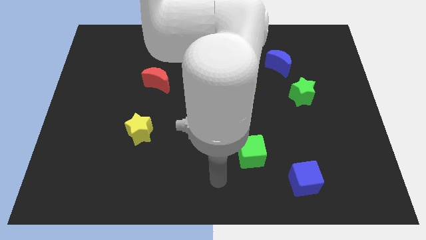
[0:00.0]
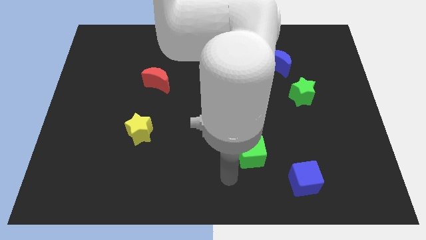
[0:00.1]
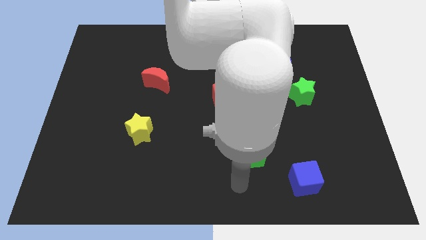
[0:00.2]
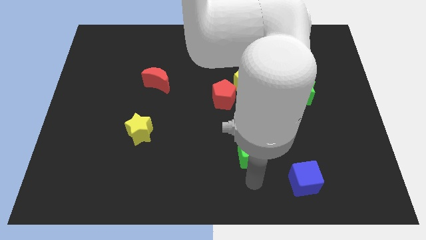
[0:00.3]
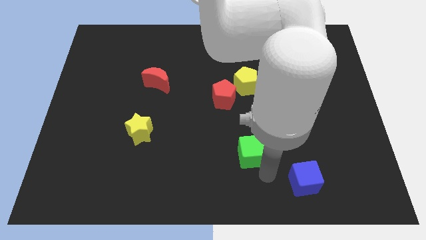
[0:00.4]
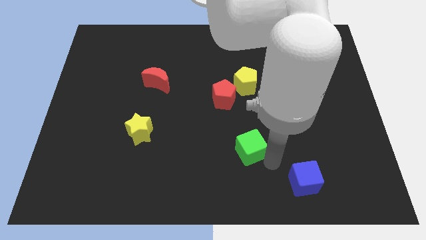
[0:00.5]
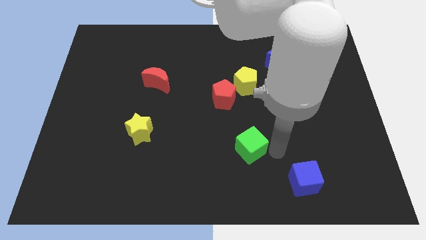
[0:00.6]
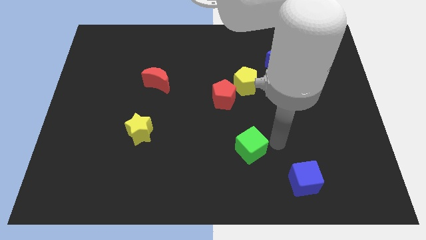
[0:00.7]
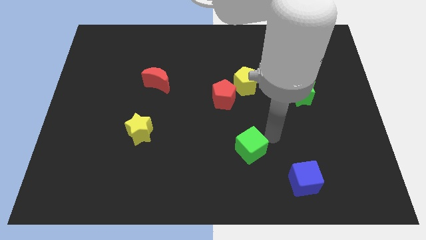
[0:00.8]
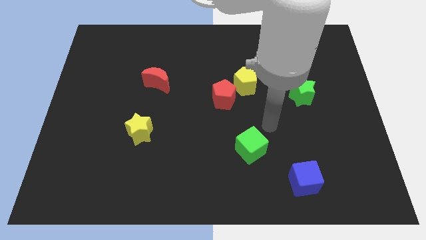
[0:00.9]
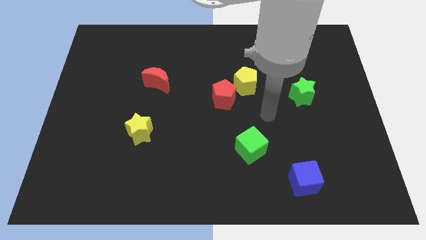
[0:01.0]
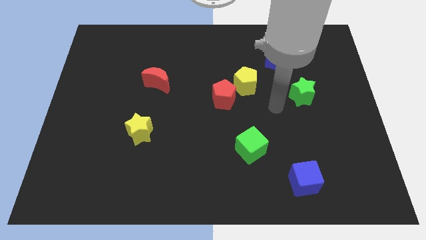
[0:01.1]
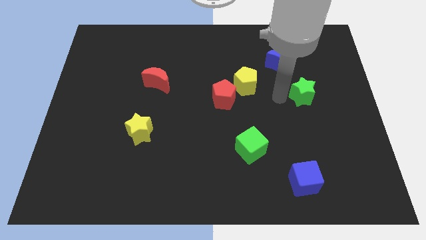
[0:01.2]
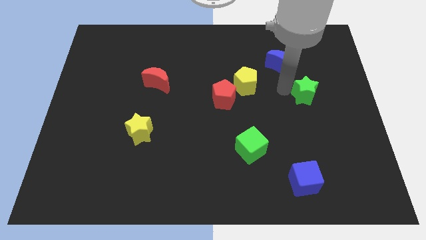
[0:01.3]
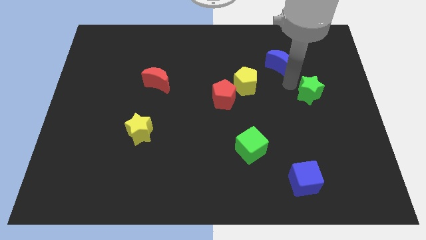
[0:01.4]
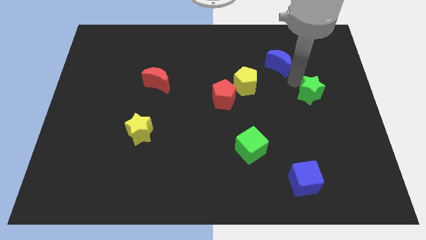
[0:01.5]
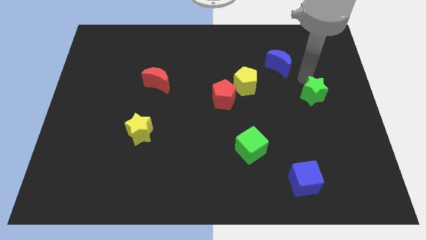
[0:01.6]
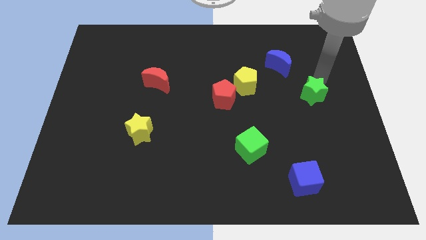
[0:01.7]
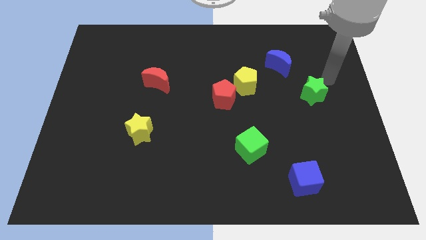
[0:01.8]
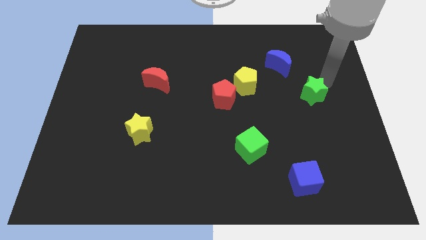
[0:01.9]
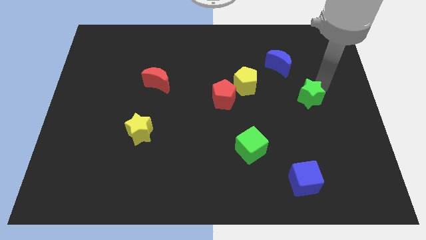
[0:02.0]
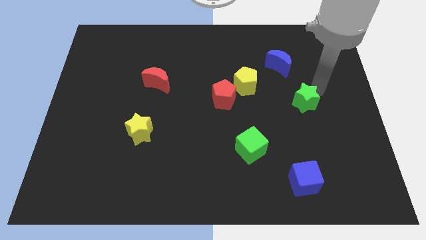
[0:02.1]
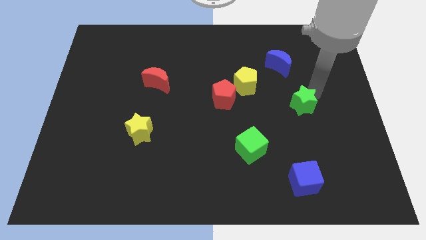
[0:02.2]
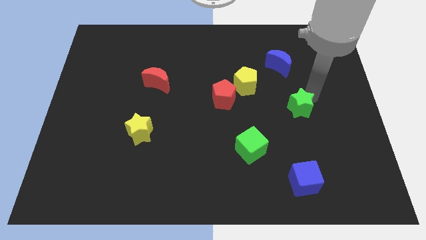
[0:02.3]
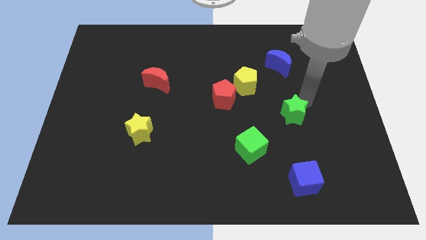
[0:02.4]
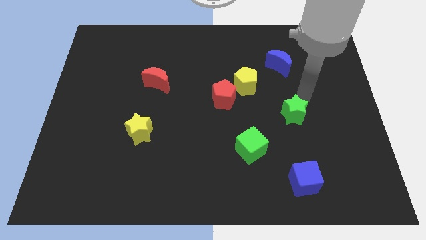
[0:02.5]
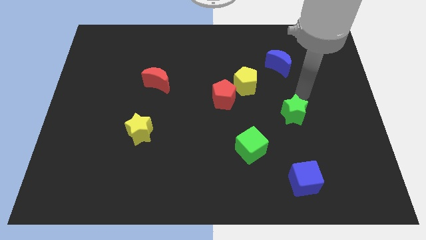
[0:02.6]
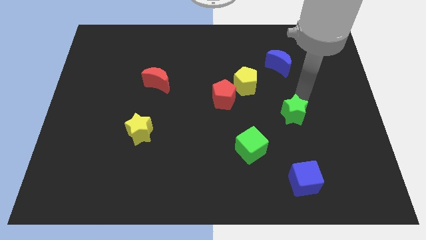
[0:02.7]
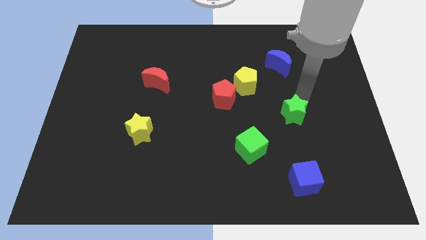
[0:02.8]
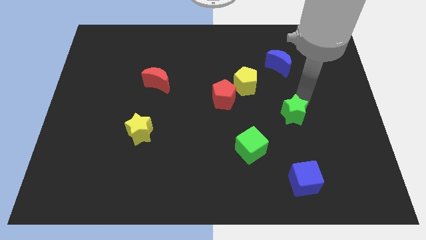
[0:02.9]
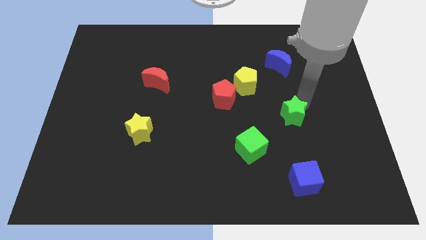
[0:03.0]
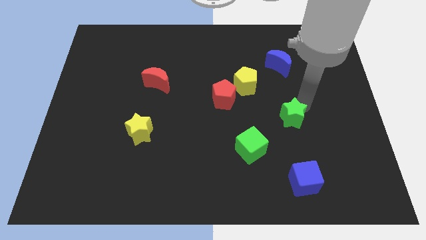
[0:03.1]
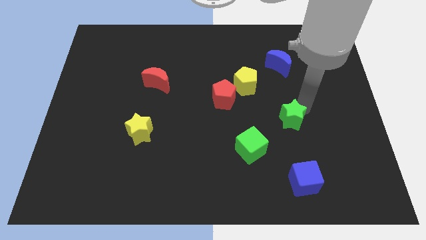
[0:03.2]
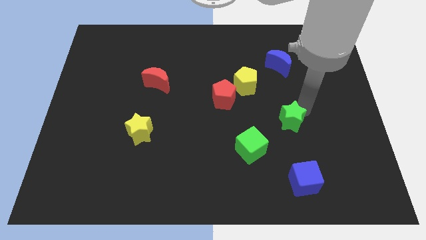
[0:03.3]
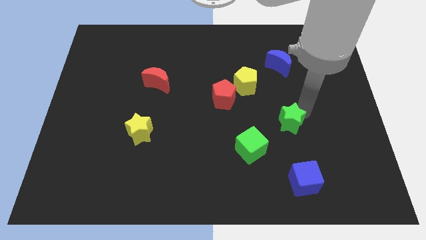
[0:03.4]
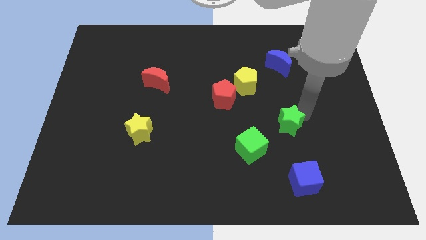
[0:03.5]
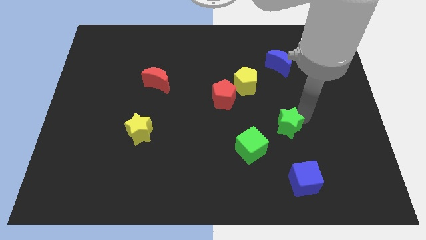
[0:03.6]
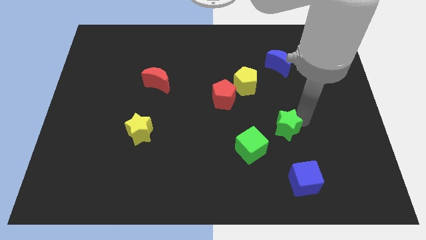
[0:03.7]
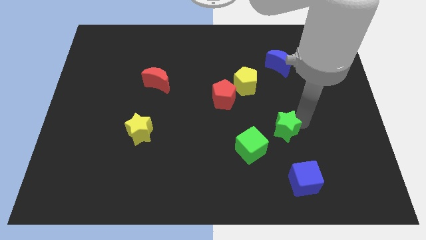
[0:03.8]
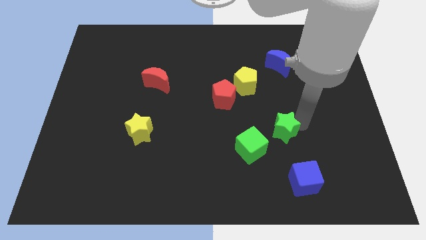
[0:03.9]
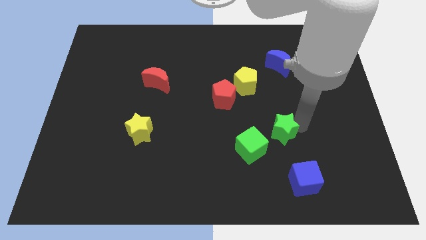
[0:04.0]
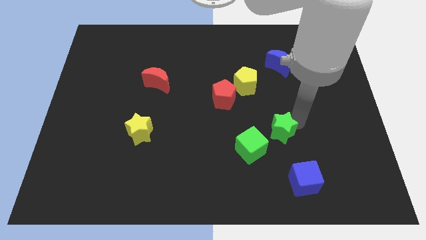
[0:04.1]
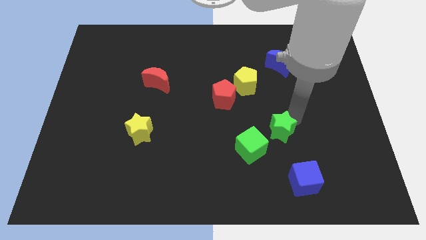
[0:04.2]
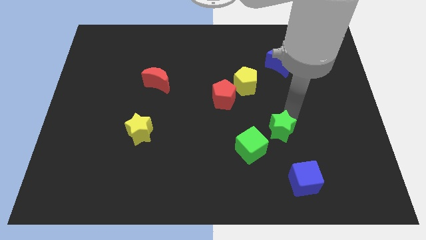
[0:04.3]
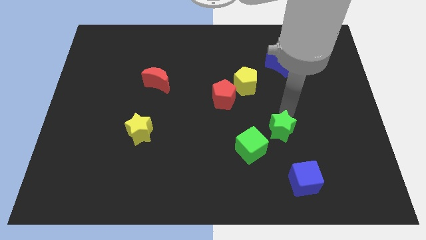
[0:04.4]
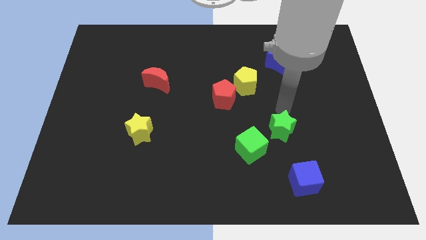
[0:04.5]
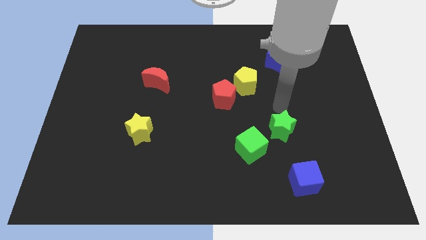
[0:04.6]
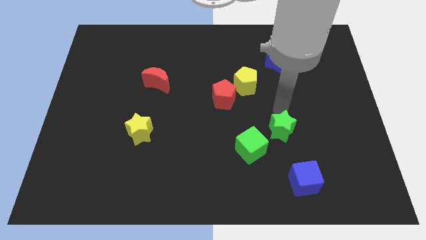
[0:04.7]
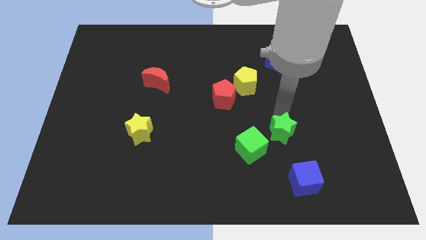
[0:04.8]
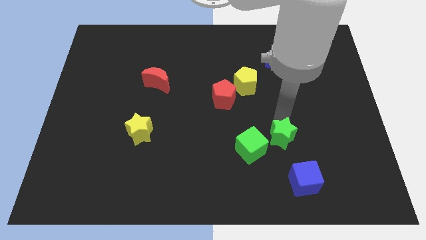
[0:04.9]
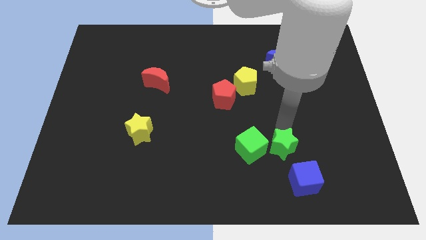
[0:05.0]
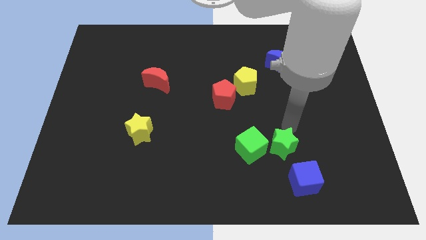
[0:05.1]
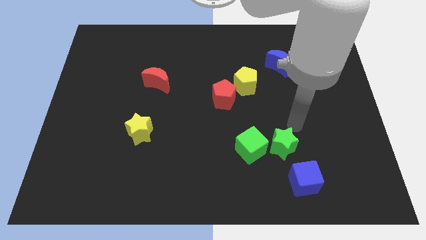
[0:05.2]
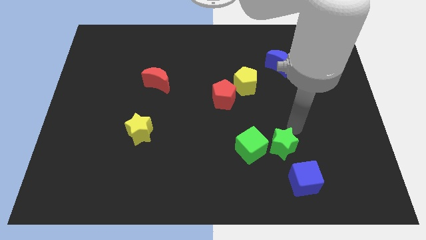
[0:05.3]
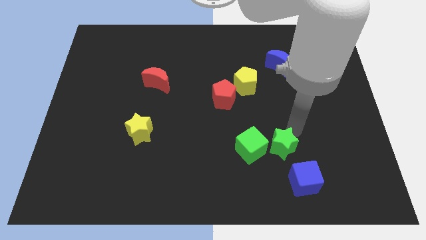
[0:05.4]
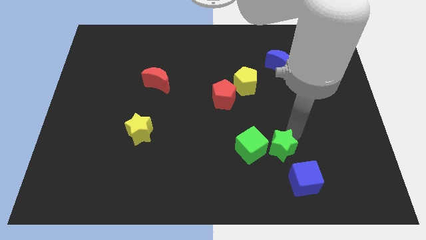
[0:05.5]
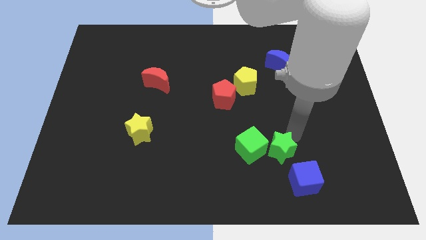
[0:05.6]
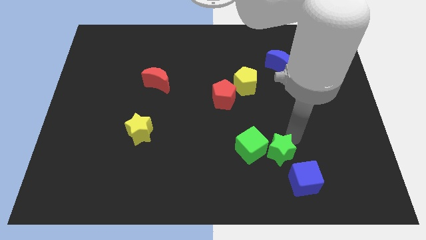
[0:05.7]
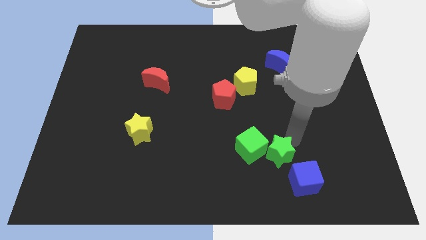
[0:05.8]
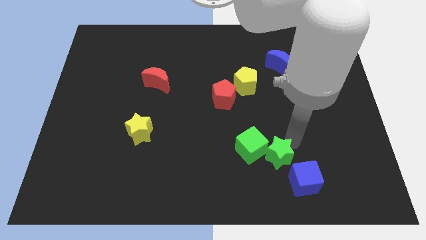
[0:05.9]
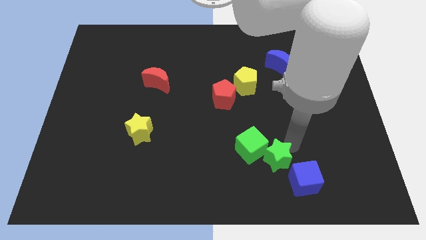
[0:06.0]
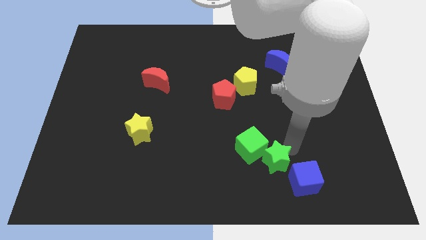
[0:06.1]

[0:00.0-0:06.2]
move the green star just left of the blue cube

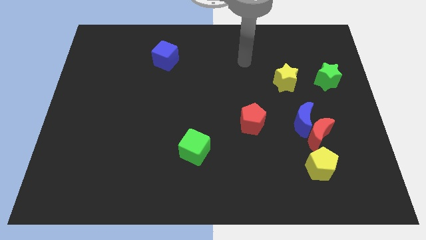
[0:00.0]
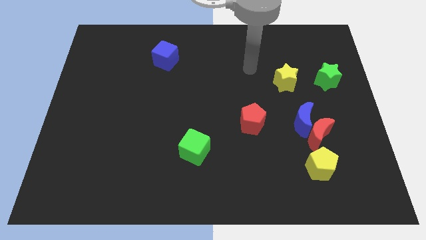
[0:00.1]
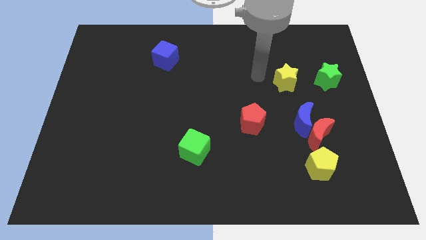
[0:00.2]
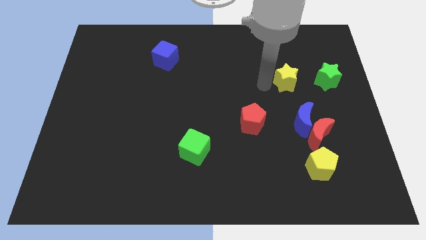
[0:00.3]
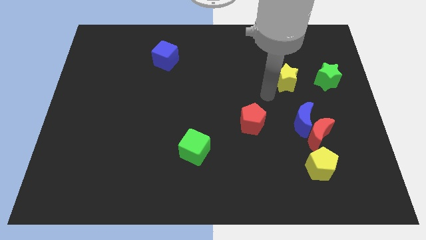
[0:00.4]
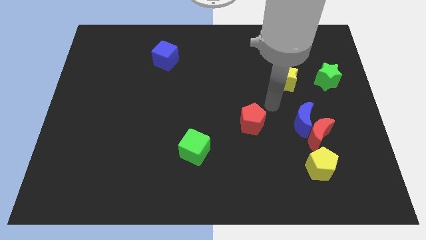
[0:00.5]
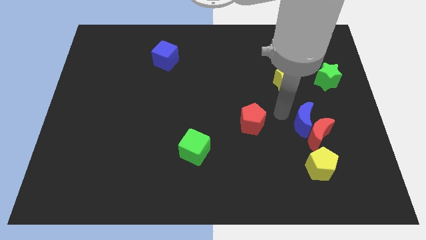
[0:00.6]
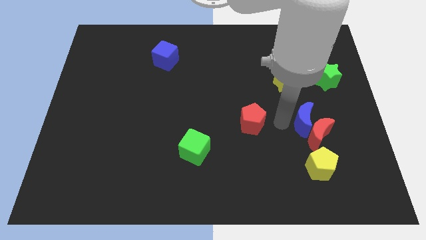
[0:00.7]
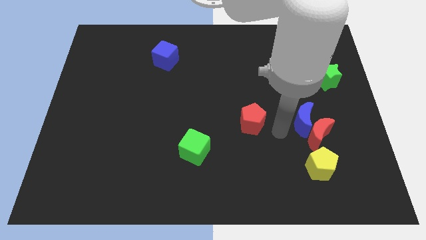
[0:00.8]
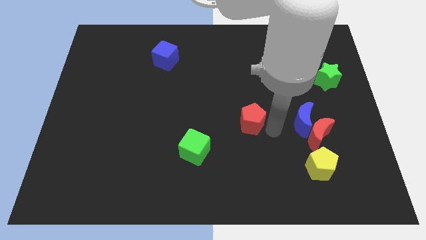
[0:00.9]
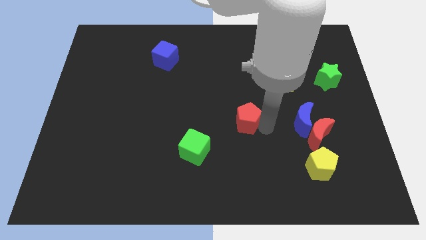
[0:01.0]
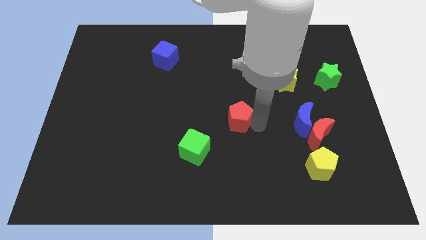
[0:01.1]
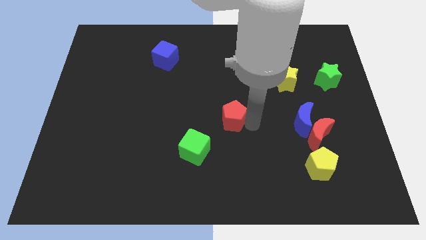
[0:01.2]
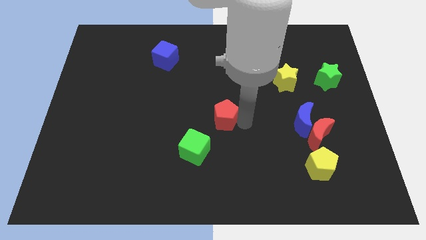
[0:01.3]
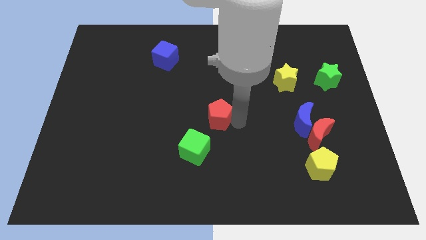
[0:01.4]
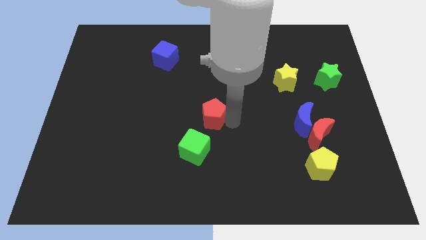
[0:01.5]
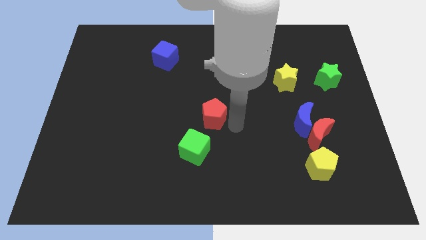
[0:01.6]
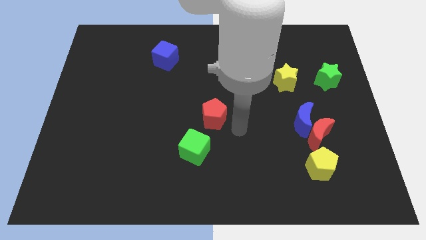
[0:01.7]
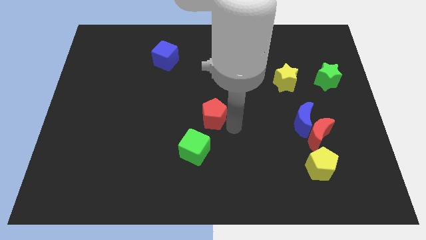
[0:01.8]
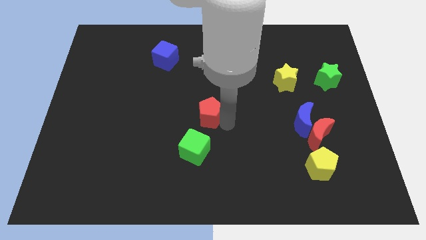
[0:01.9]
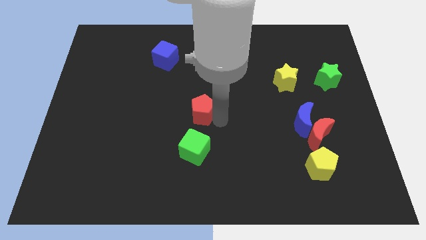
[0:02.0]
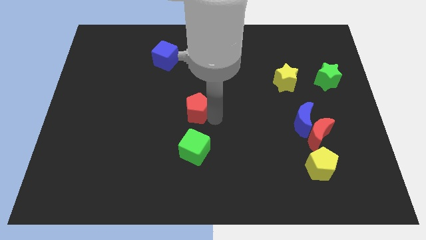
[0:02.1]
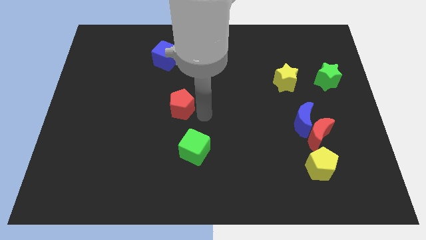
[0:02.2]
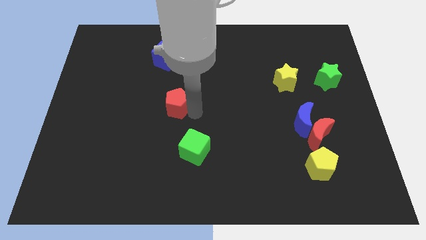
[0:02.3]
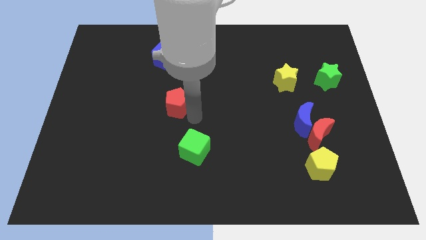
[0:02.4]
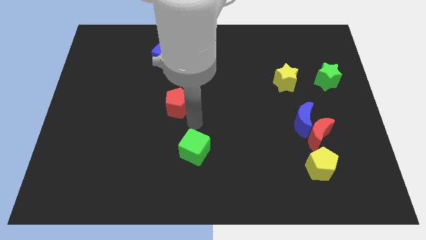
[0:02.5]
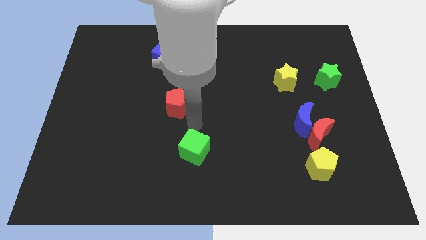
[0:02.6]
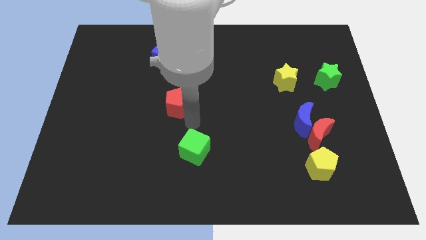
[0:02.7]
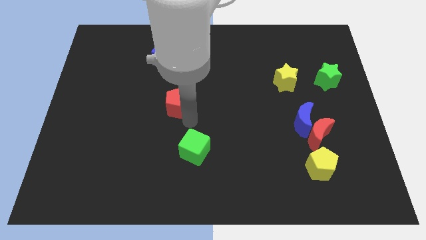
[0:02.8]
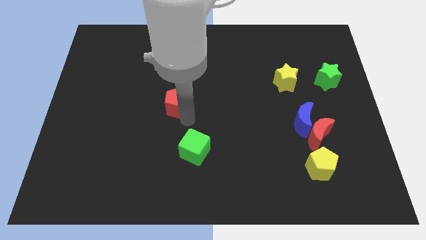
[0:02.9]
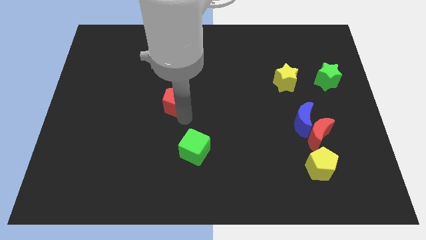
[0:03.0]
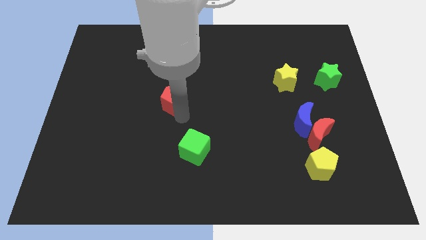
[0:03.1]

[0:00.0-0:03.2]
move the red pentagon to the bottom of the blue cube
